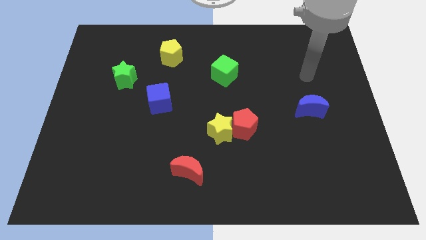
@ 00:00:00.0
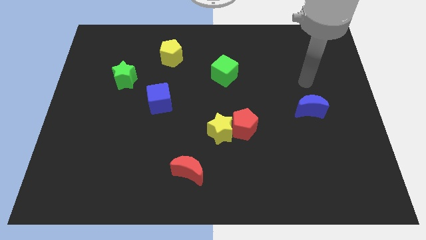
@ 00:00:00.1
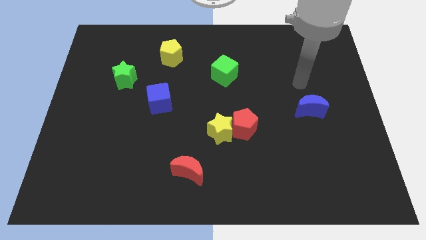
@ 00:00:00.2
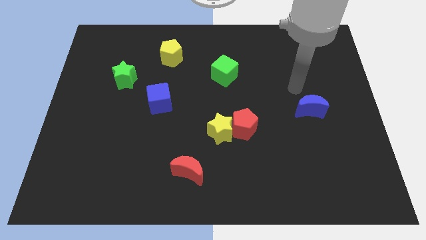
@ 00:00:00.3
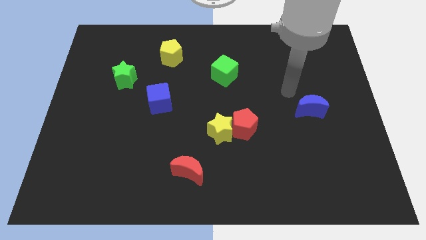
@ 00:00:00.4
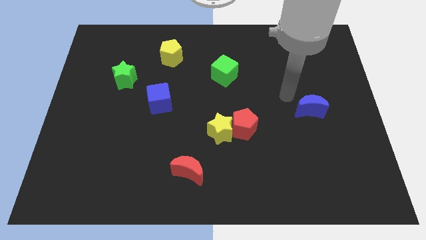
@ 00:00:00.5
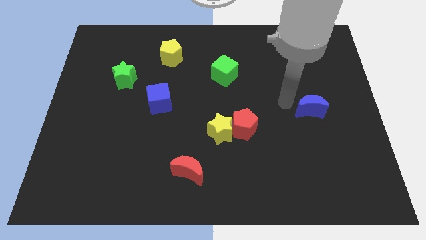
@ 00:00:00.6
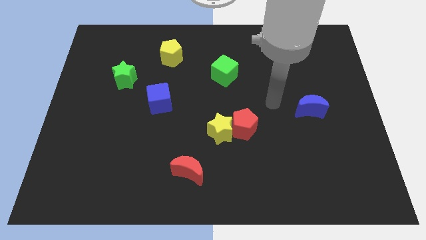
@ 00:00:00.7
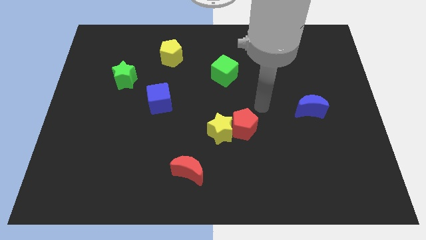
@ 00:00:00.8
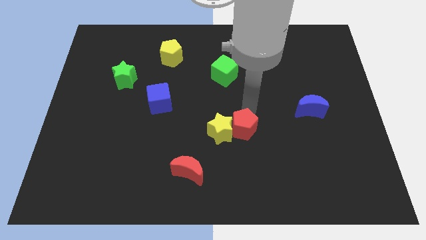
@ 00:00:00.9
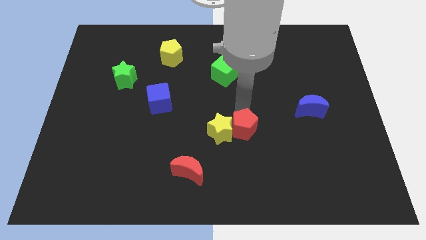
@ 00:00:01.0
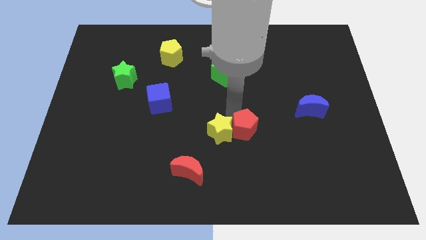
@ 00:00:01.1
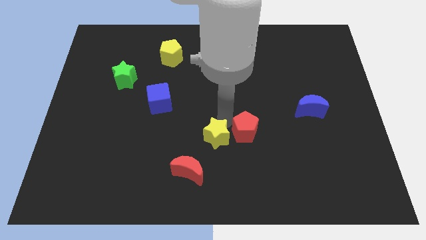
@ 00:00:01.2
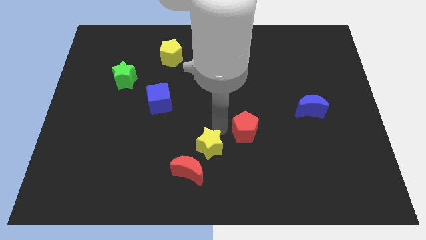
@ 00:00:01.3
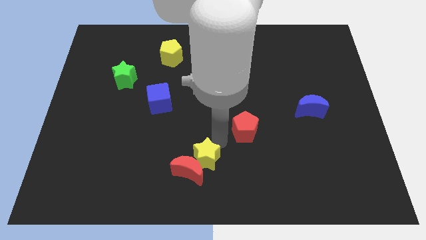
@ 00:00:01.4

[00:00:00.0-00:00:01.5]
pull the red pentagon apart from the yellow star

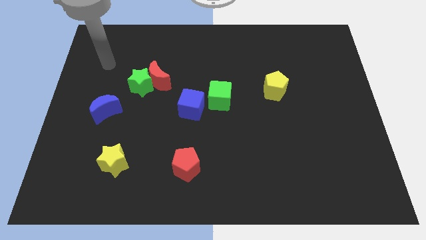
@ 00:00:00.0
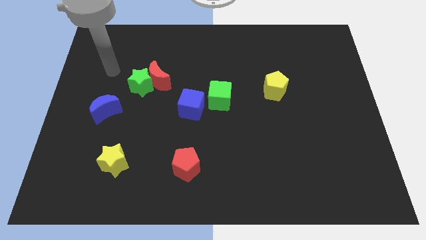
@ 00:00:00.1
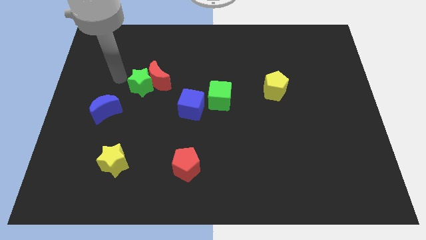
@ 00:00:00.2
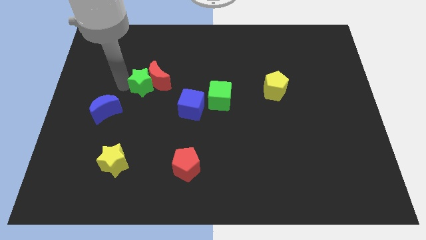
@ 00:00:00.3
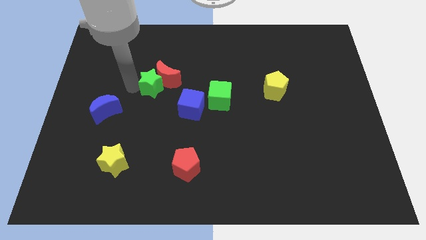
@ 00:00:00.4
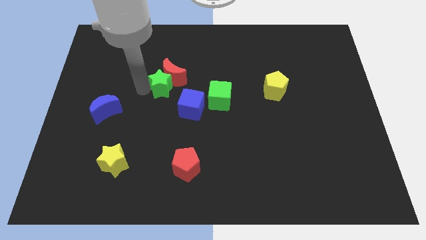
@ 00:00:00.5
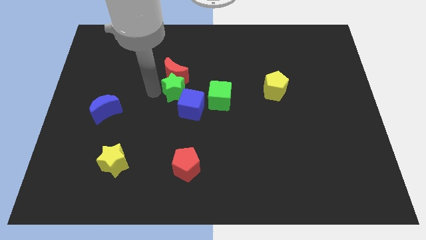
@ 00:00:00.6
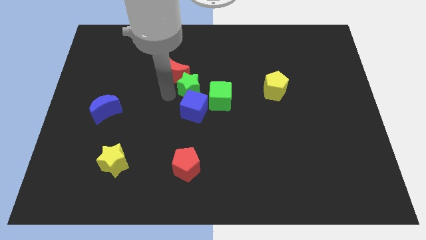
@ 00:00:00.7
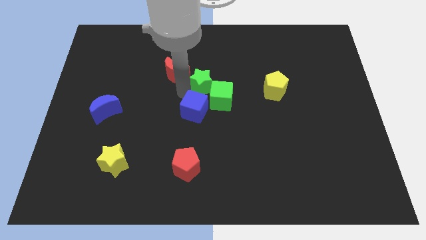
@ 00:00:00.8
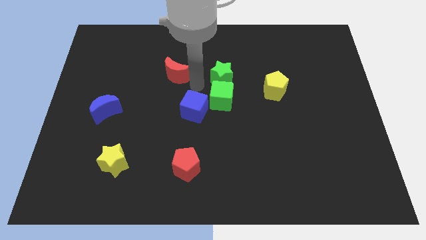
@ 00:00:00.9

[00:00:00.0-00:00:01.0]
move the red moon away from the green star

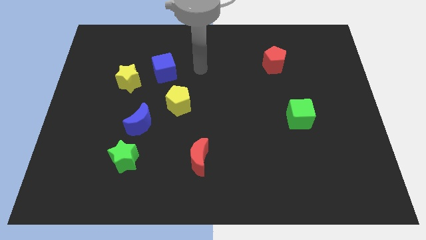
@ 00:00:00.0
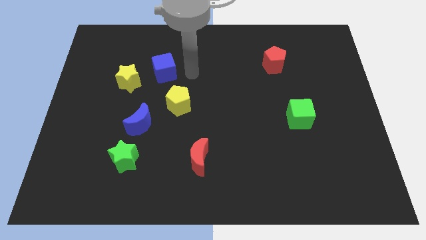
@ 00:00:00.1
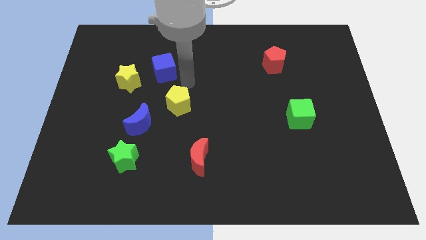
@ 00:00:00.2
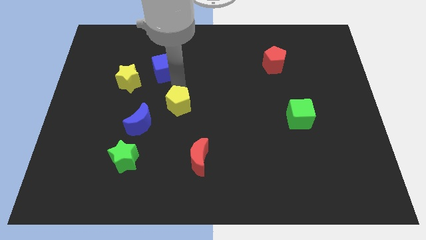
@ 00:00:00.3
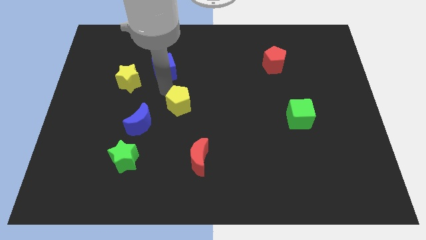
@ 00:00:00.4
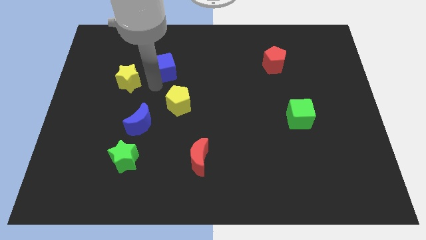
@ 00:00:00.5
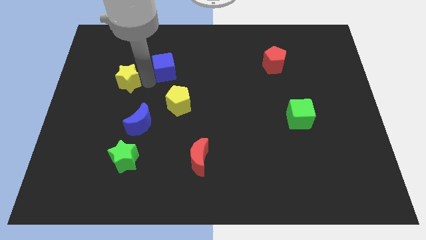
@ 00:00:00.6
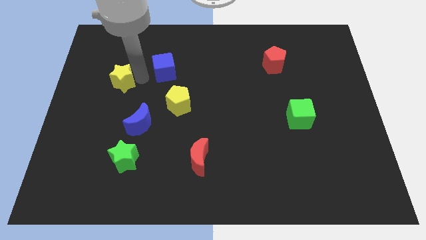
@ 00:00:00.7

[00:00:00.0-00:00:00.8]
pull the blue cube apart from the yellow star

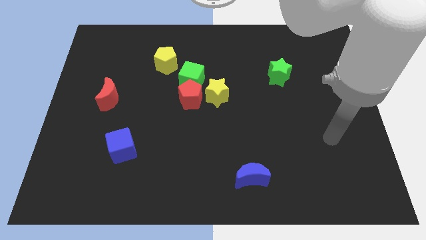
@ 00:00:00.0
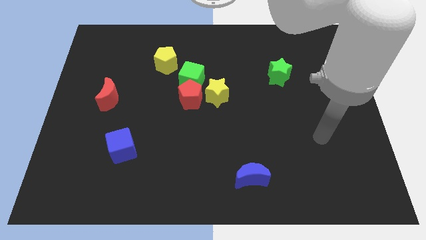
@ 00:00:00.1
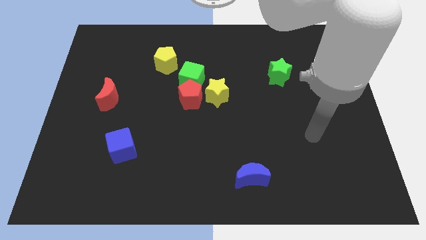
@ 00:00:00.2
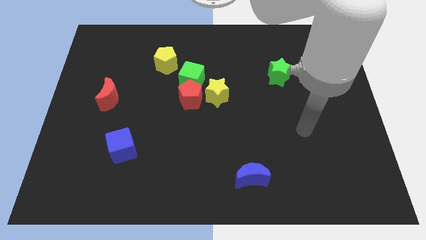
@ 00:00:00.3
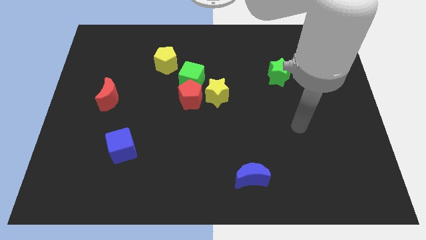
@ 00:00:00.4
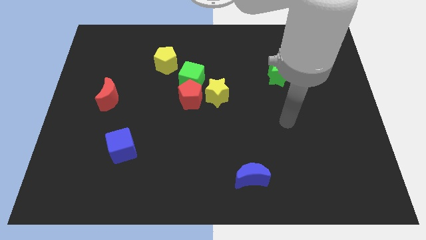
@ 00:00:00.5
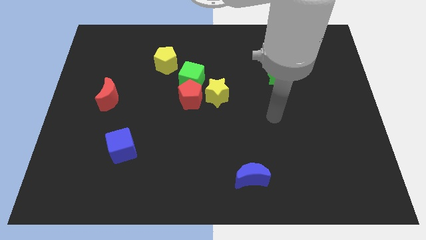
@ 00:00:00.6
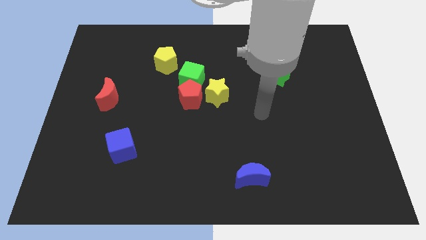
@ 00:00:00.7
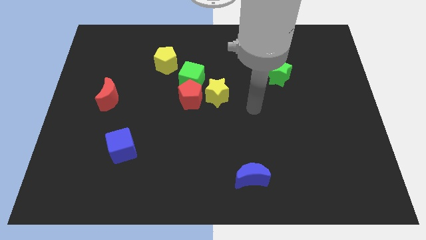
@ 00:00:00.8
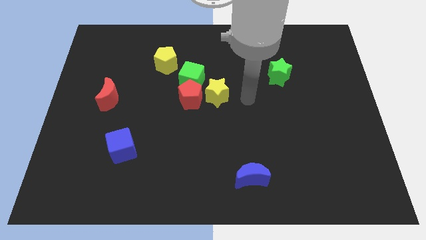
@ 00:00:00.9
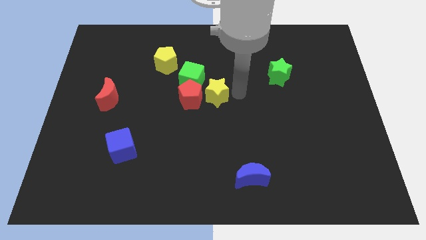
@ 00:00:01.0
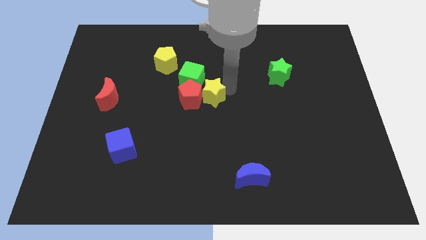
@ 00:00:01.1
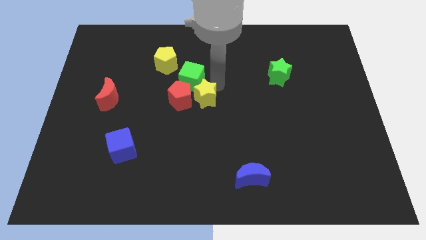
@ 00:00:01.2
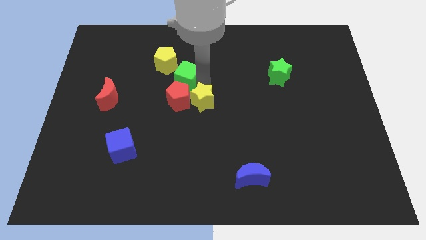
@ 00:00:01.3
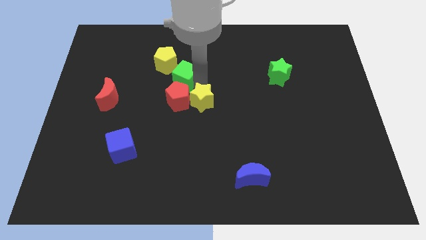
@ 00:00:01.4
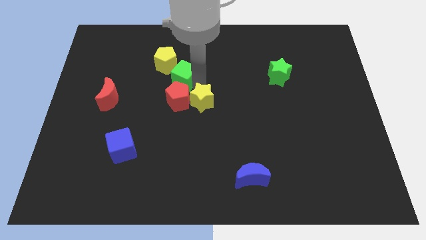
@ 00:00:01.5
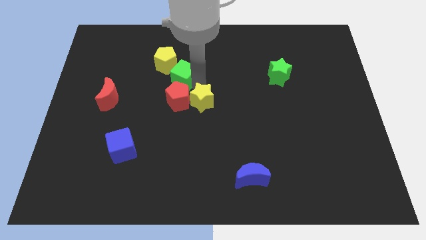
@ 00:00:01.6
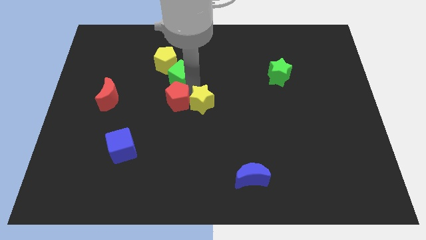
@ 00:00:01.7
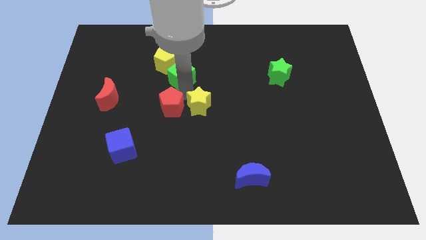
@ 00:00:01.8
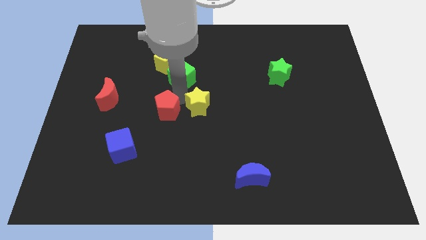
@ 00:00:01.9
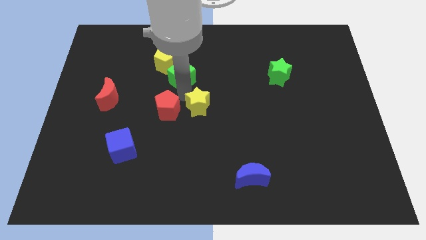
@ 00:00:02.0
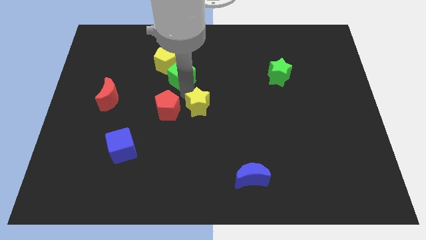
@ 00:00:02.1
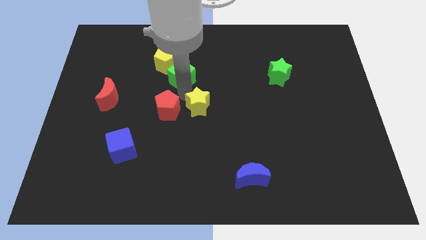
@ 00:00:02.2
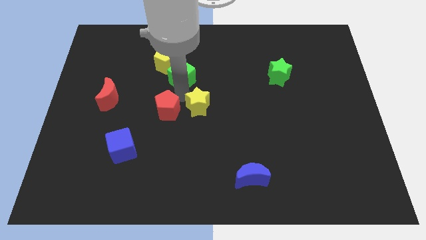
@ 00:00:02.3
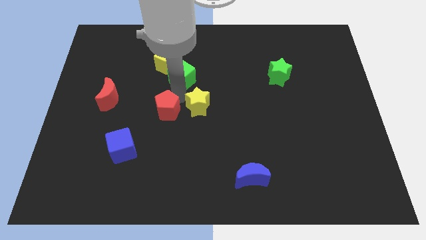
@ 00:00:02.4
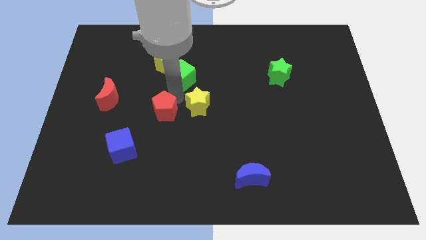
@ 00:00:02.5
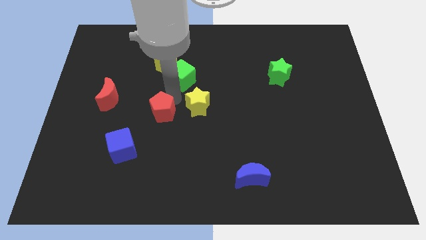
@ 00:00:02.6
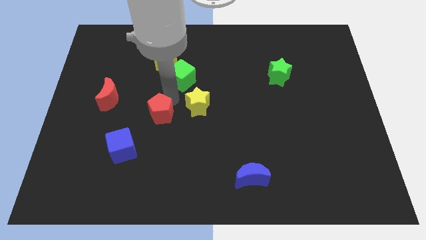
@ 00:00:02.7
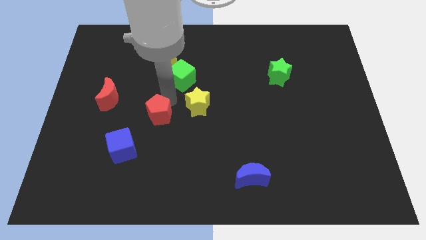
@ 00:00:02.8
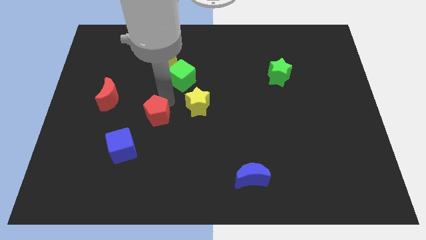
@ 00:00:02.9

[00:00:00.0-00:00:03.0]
move the red pentagon away from the green cube and yellow star

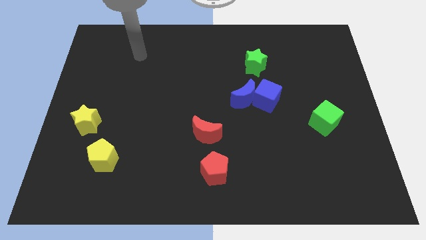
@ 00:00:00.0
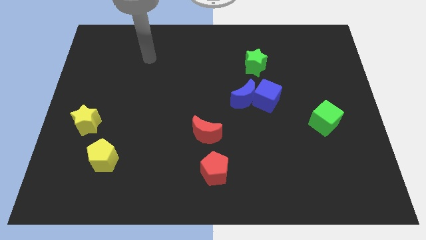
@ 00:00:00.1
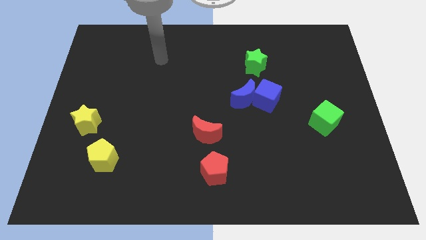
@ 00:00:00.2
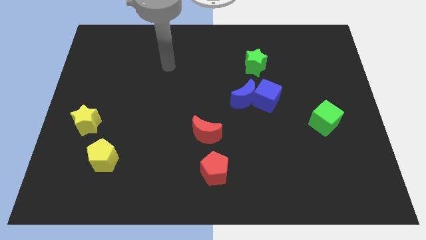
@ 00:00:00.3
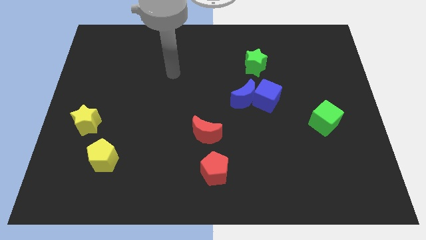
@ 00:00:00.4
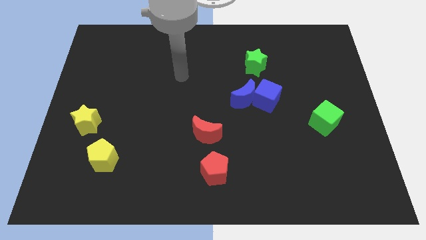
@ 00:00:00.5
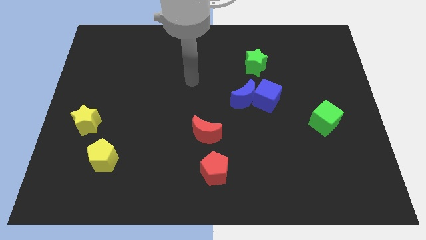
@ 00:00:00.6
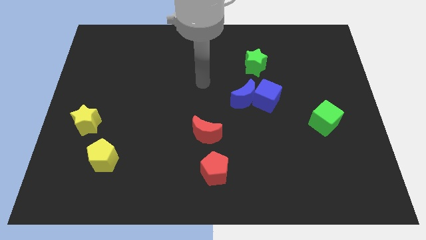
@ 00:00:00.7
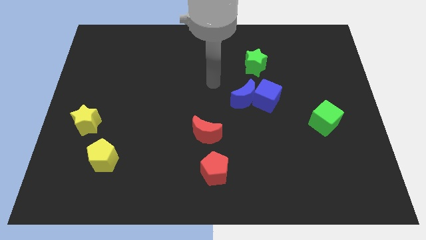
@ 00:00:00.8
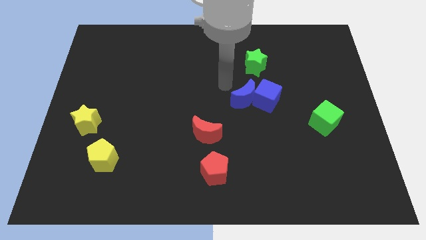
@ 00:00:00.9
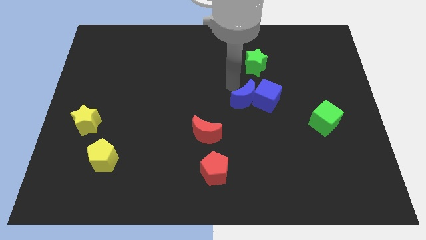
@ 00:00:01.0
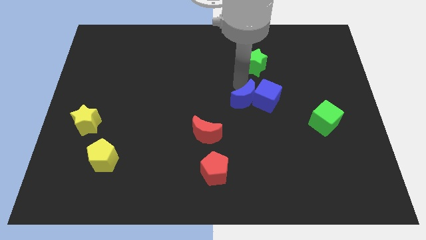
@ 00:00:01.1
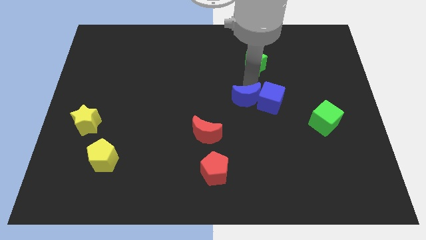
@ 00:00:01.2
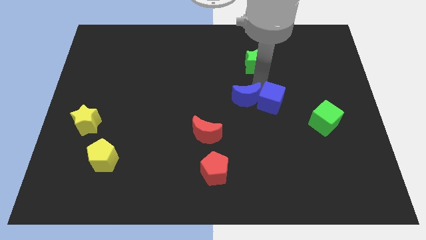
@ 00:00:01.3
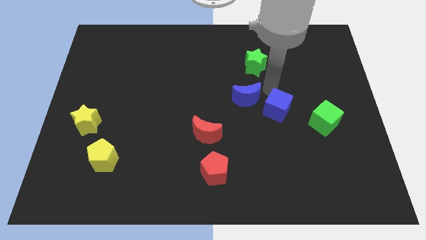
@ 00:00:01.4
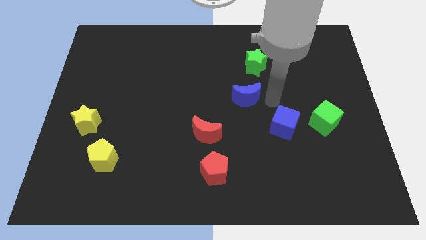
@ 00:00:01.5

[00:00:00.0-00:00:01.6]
pull the blue moon apart from the blue cube

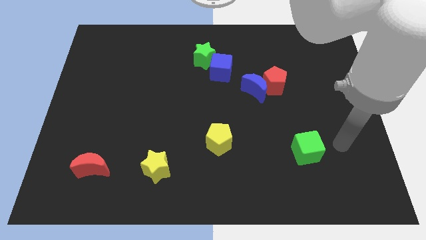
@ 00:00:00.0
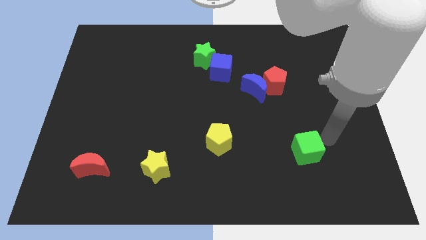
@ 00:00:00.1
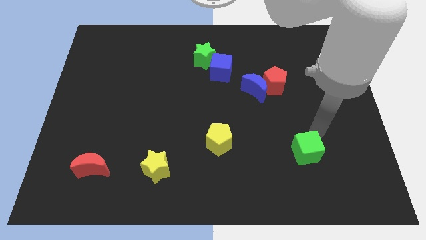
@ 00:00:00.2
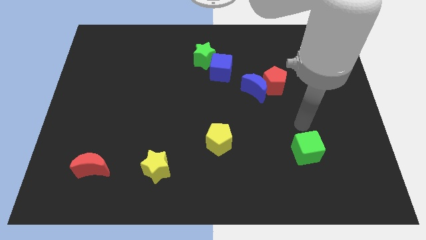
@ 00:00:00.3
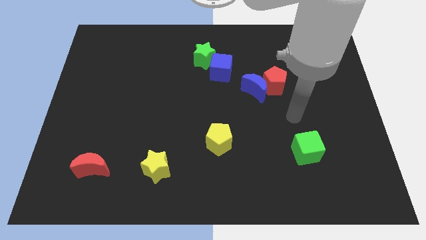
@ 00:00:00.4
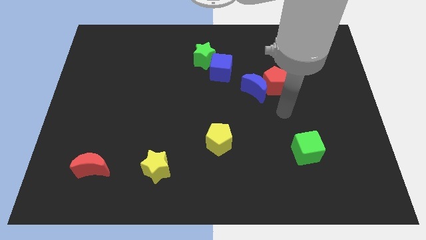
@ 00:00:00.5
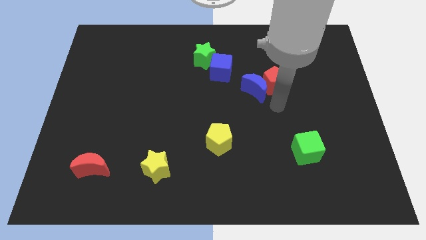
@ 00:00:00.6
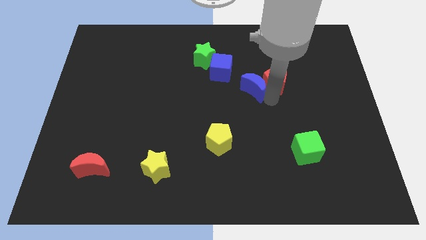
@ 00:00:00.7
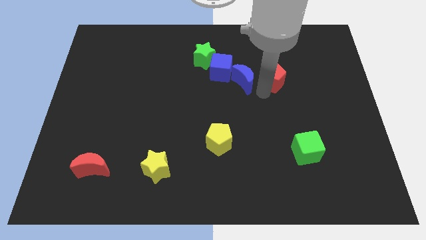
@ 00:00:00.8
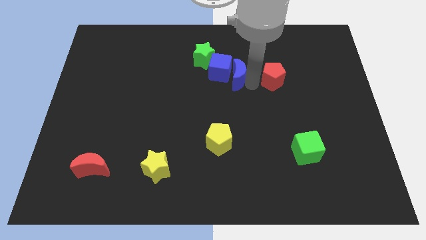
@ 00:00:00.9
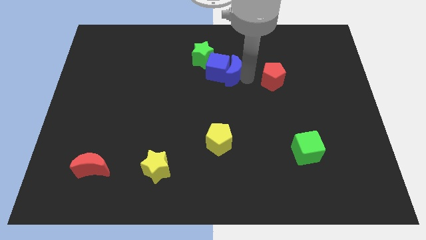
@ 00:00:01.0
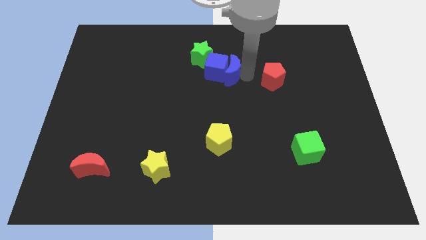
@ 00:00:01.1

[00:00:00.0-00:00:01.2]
pull the red pentagon apart from the blue moon
